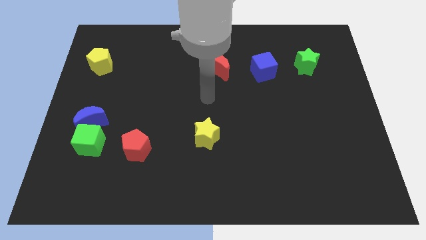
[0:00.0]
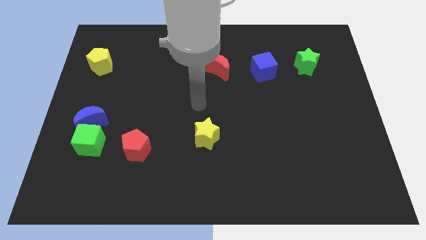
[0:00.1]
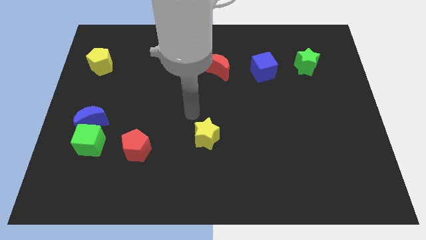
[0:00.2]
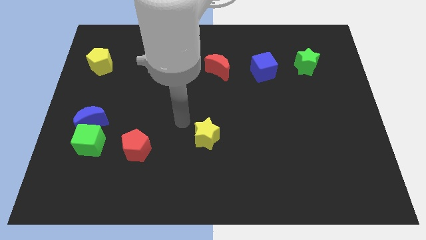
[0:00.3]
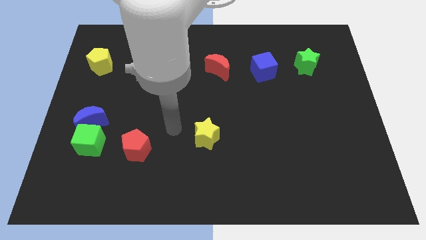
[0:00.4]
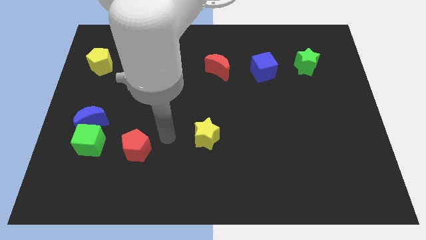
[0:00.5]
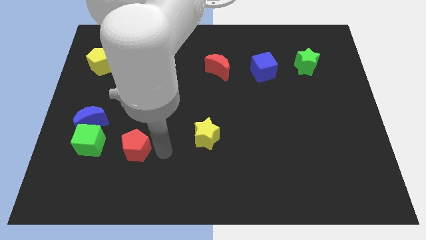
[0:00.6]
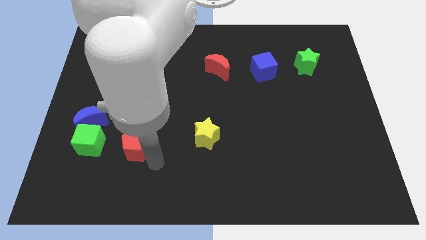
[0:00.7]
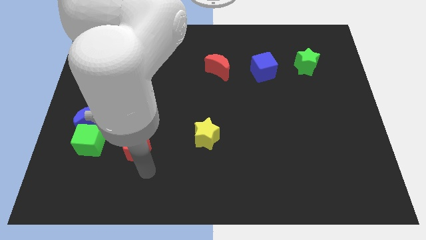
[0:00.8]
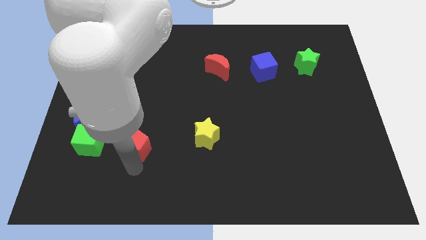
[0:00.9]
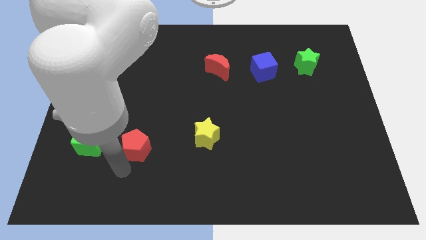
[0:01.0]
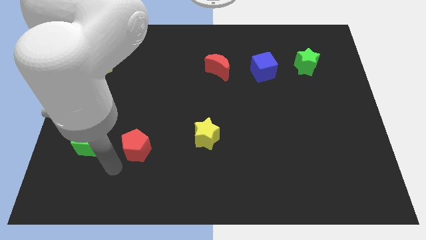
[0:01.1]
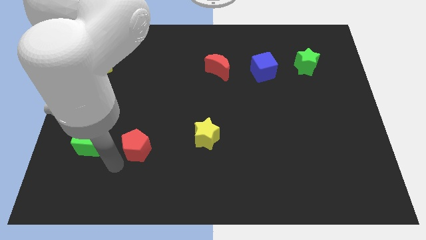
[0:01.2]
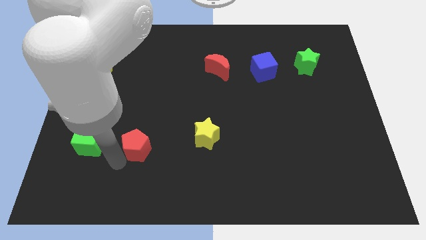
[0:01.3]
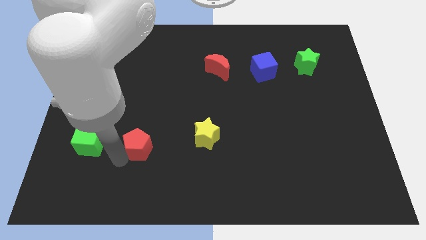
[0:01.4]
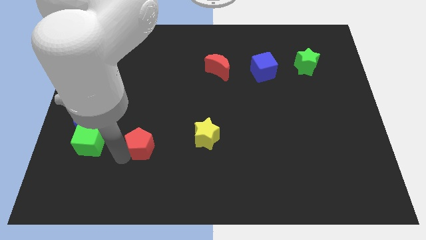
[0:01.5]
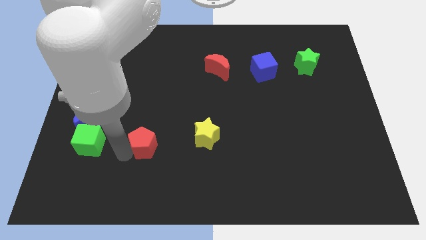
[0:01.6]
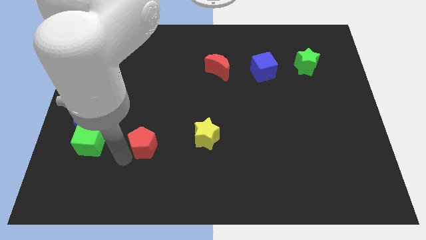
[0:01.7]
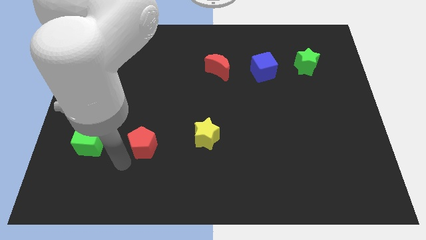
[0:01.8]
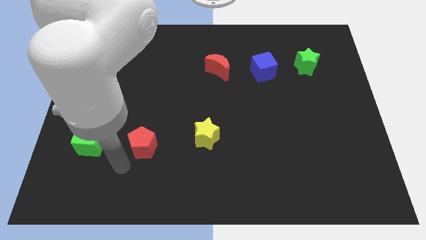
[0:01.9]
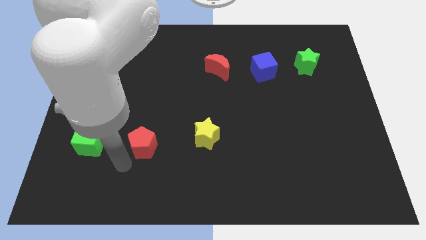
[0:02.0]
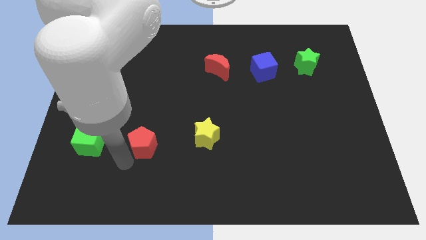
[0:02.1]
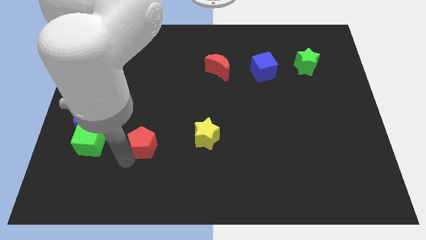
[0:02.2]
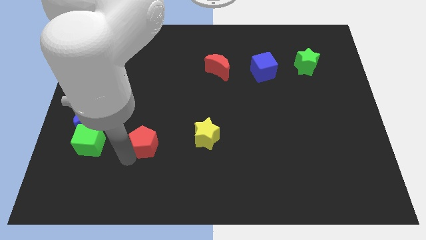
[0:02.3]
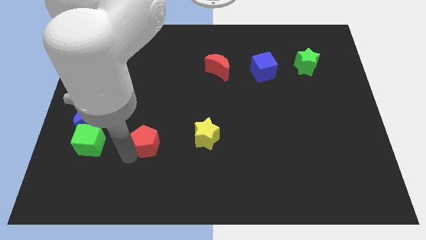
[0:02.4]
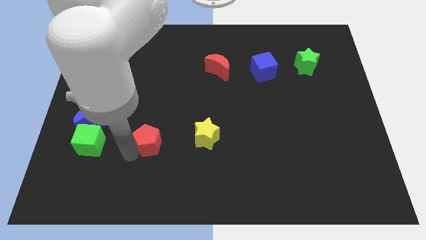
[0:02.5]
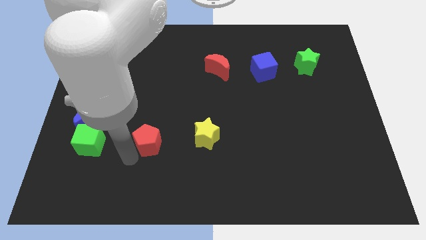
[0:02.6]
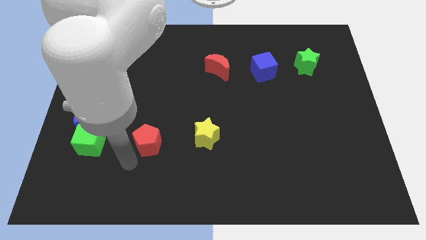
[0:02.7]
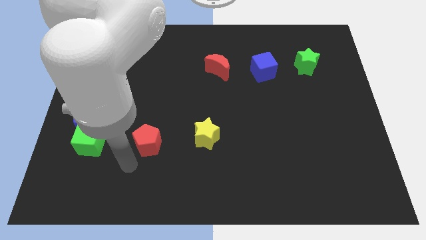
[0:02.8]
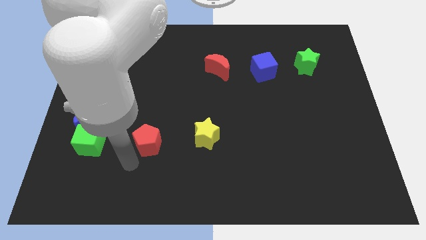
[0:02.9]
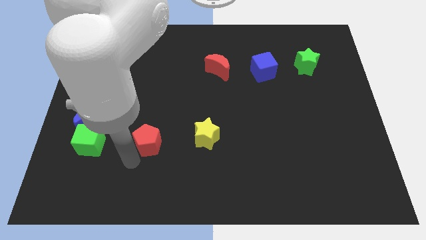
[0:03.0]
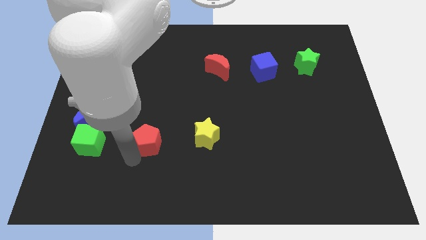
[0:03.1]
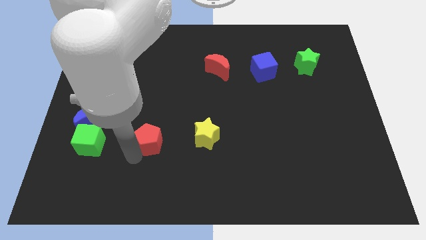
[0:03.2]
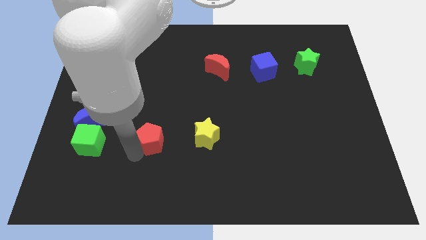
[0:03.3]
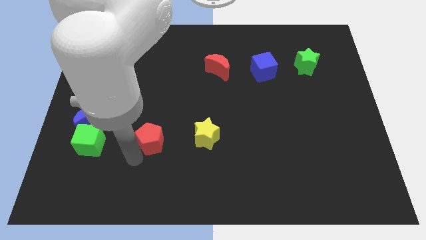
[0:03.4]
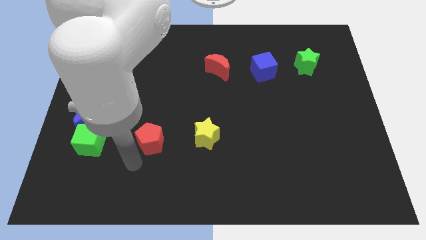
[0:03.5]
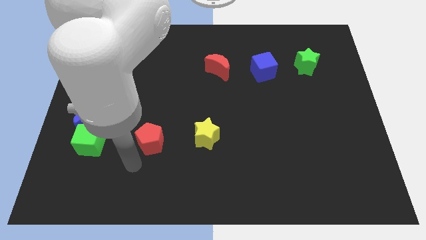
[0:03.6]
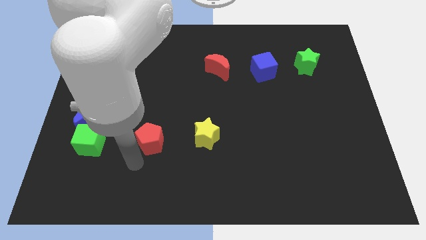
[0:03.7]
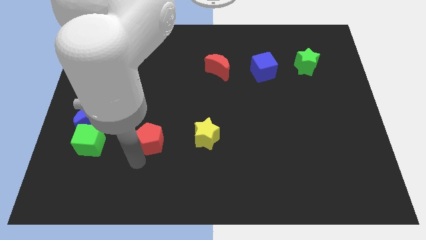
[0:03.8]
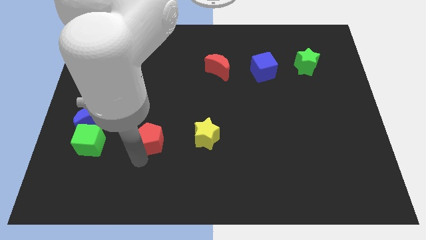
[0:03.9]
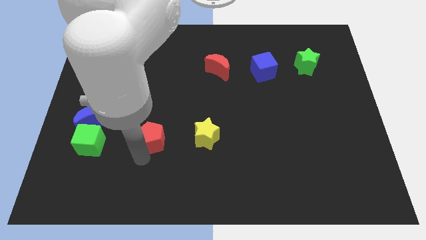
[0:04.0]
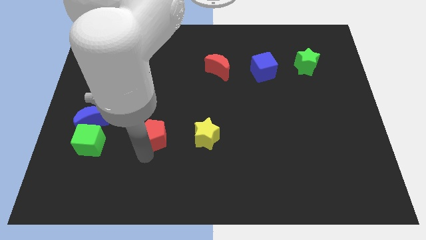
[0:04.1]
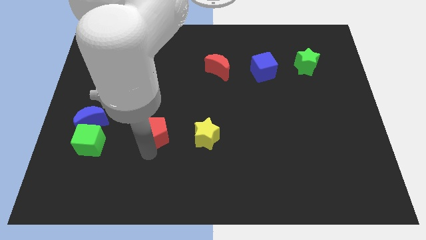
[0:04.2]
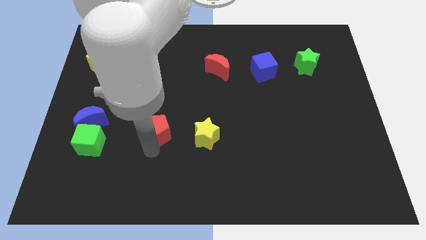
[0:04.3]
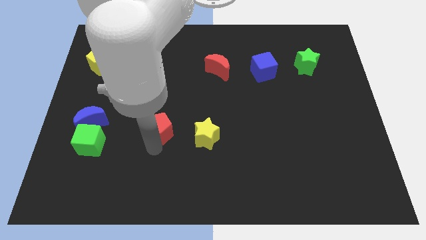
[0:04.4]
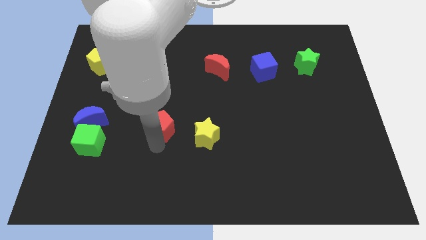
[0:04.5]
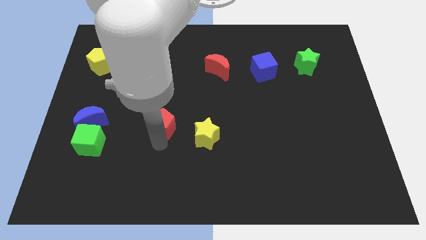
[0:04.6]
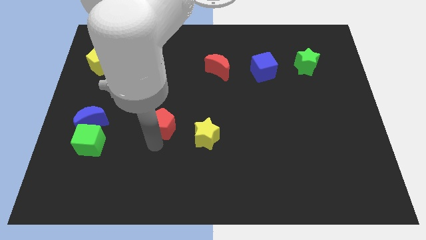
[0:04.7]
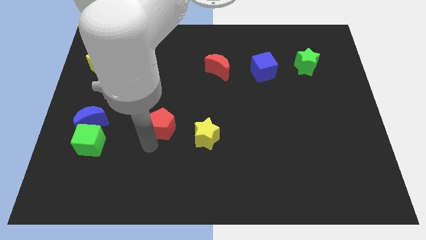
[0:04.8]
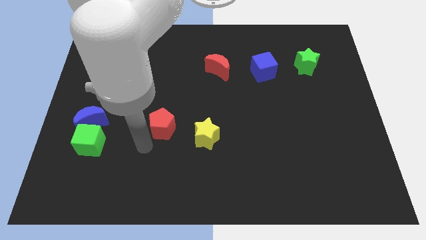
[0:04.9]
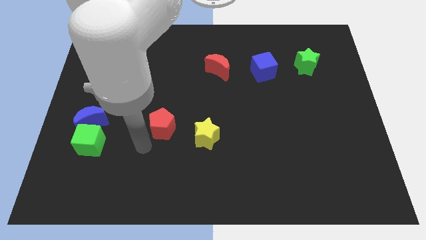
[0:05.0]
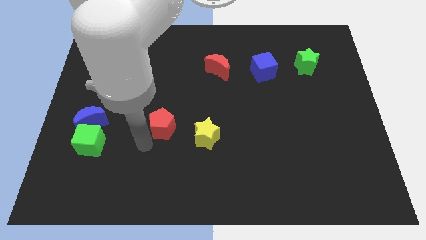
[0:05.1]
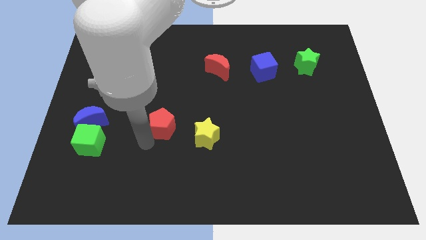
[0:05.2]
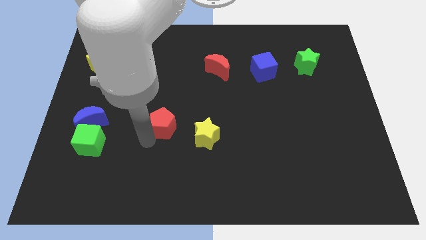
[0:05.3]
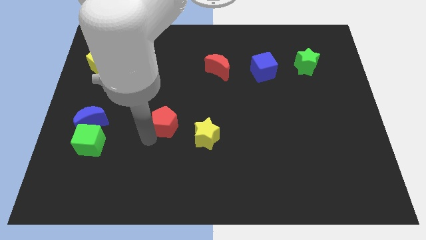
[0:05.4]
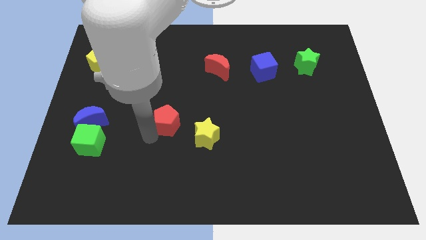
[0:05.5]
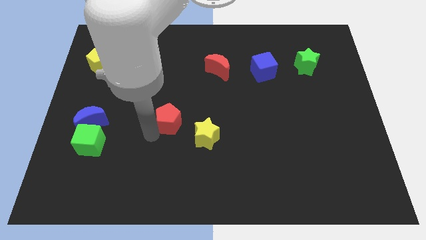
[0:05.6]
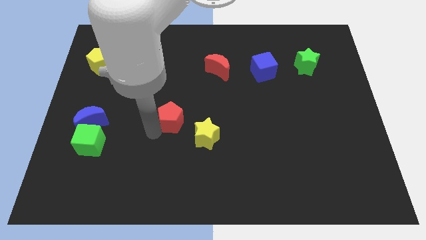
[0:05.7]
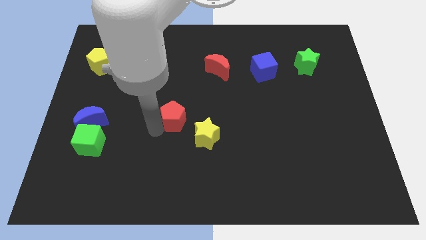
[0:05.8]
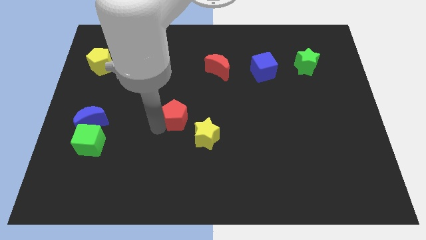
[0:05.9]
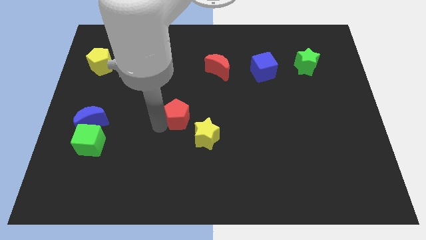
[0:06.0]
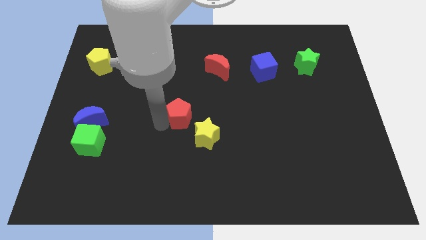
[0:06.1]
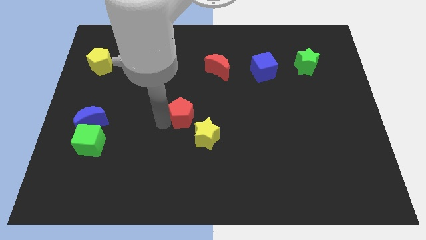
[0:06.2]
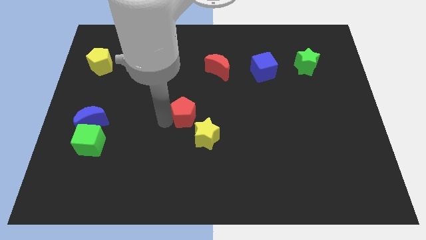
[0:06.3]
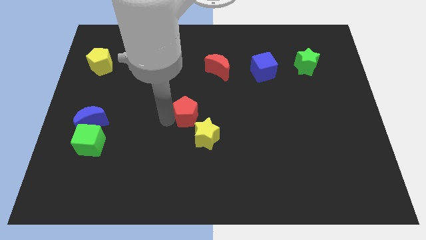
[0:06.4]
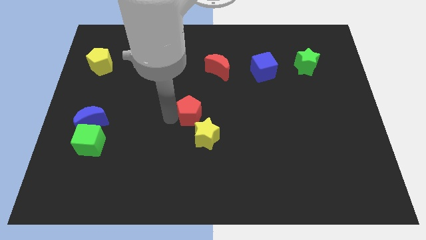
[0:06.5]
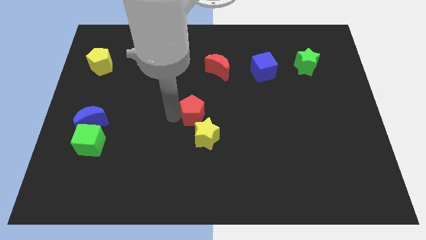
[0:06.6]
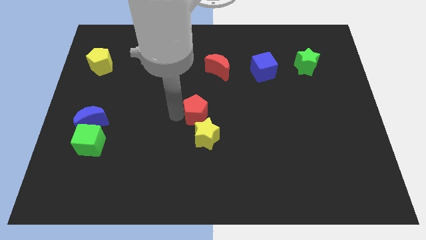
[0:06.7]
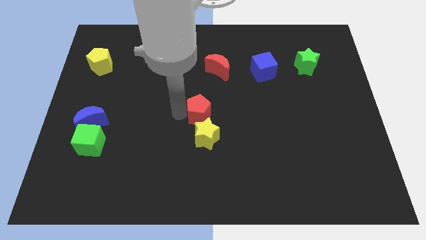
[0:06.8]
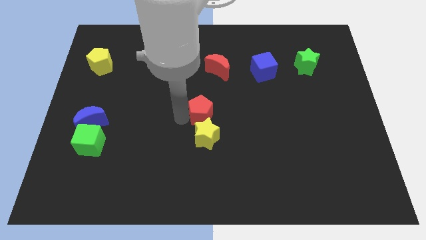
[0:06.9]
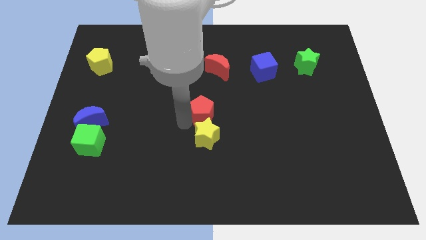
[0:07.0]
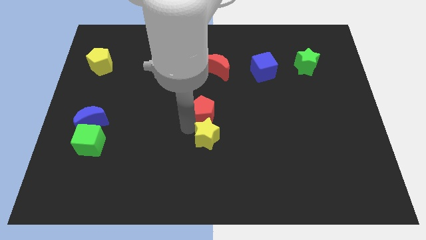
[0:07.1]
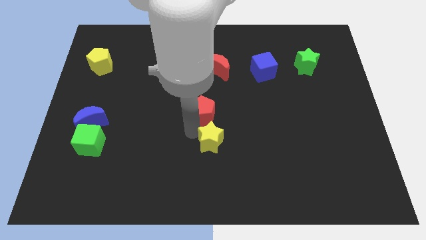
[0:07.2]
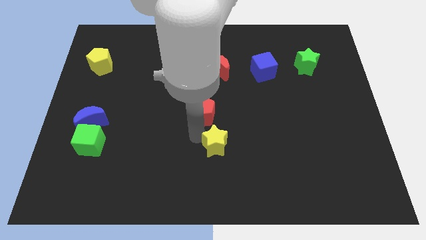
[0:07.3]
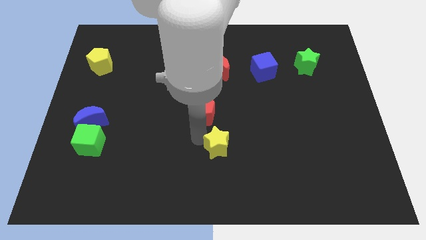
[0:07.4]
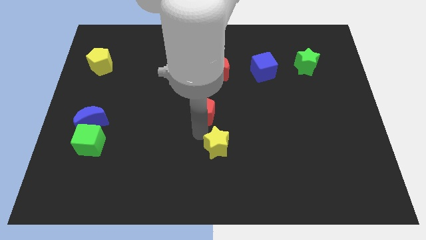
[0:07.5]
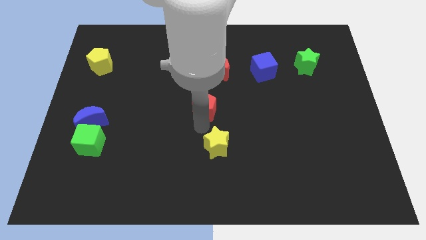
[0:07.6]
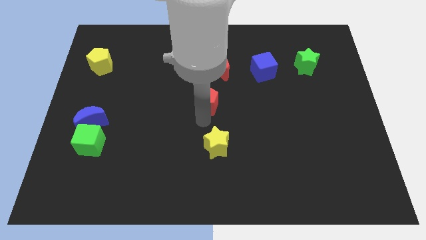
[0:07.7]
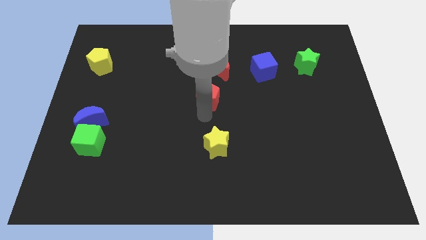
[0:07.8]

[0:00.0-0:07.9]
slide the red pentagon upwards and then to the right

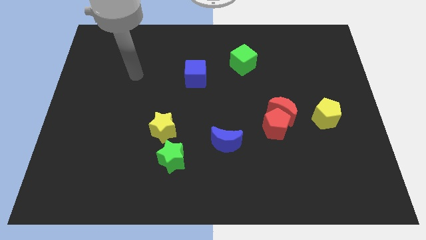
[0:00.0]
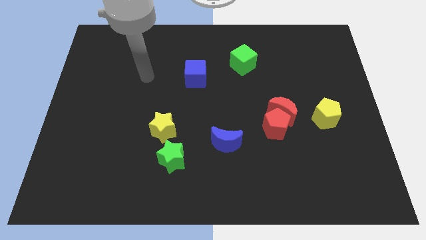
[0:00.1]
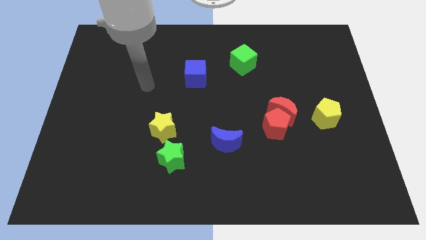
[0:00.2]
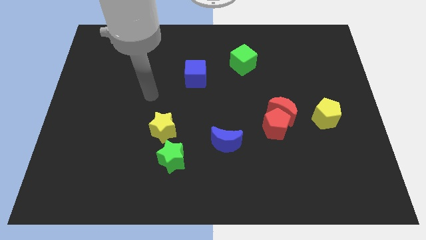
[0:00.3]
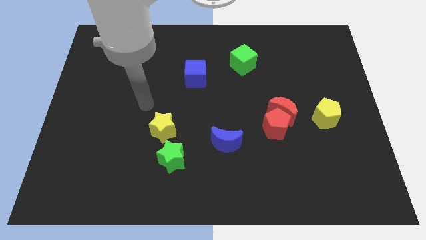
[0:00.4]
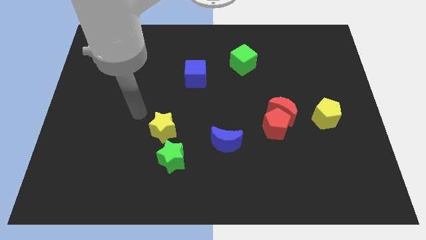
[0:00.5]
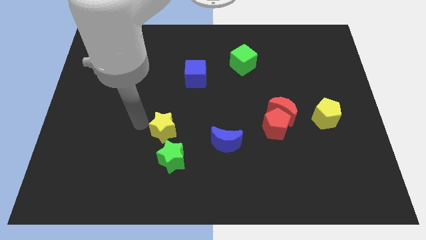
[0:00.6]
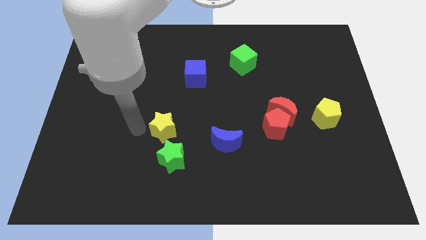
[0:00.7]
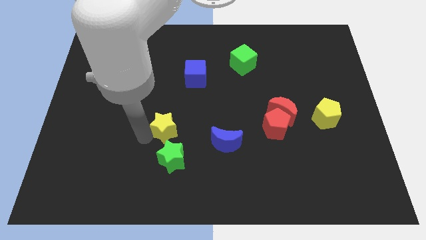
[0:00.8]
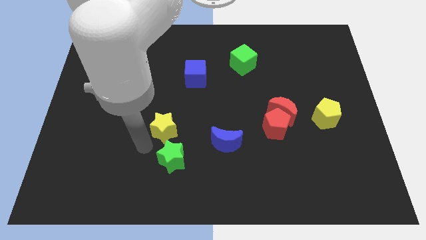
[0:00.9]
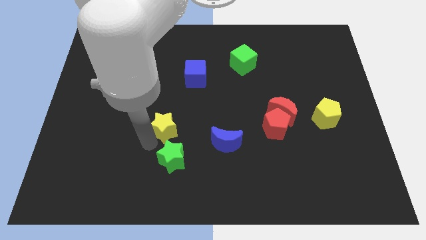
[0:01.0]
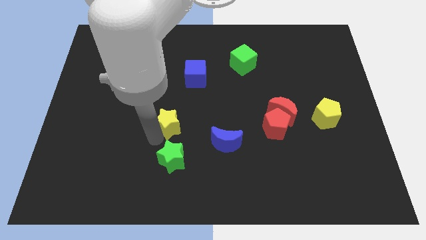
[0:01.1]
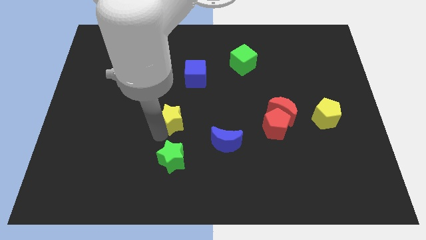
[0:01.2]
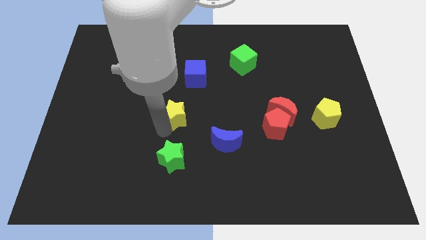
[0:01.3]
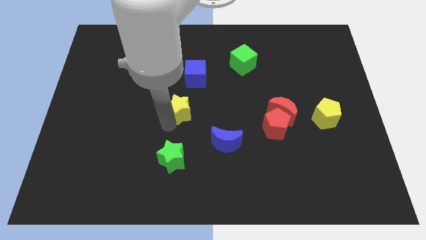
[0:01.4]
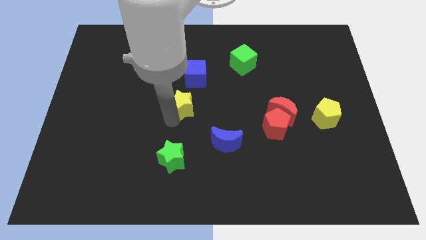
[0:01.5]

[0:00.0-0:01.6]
move the yellow star up and right a little bit
